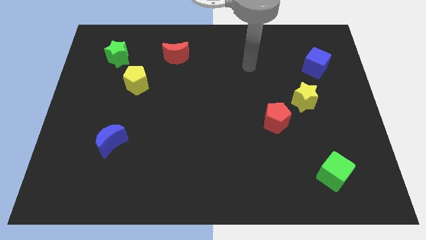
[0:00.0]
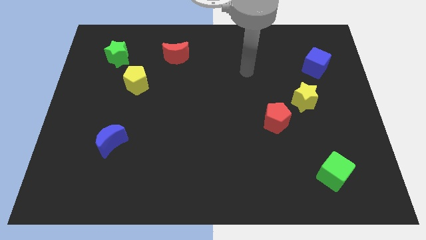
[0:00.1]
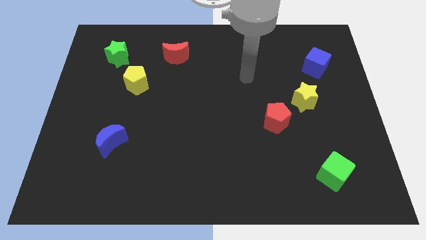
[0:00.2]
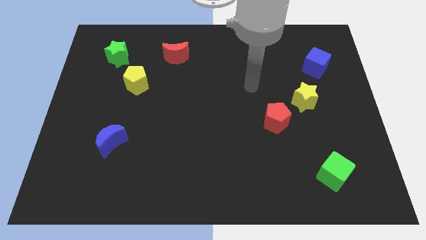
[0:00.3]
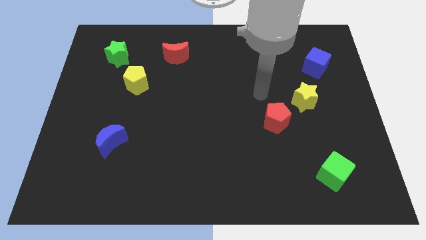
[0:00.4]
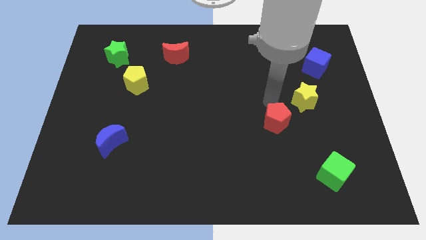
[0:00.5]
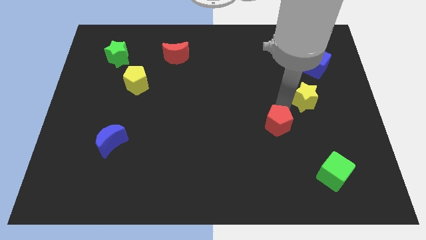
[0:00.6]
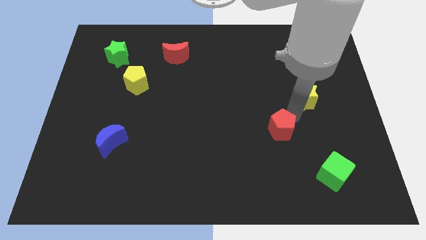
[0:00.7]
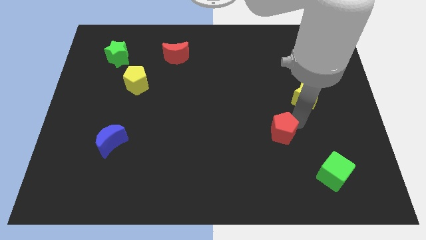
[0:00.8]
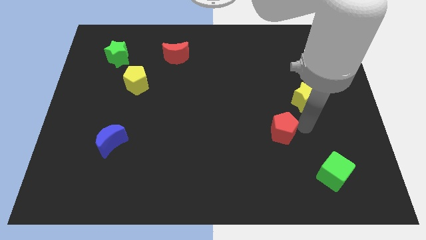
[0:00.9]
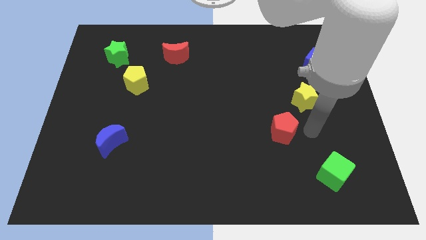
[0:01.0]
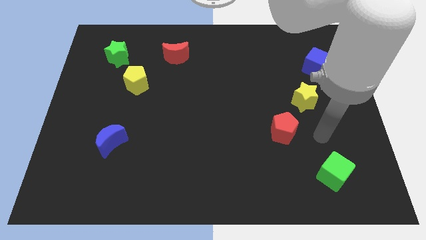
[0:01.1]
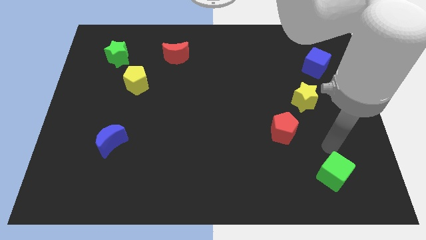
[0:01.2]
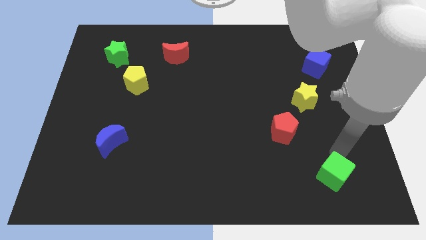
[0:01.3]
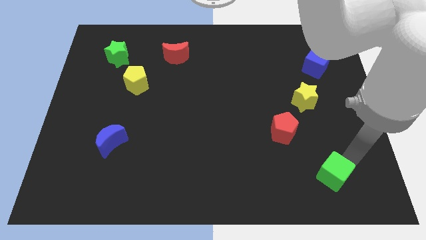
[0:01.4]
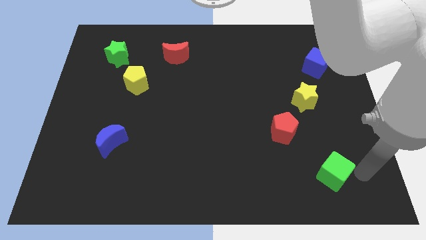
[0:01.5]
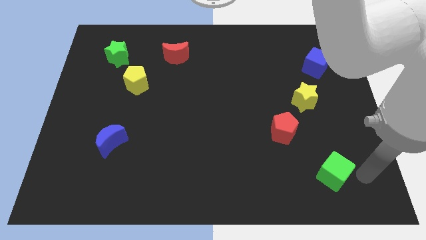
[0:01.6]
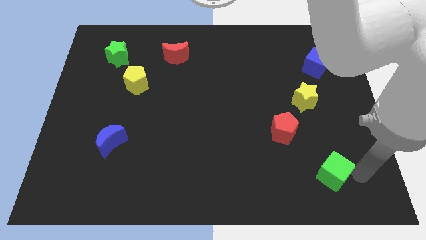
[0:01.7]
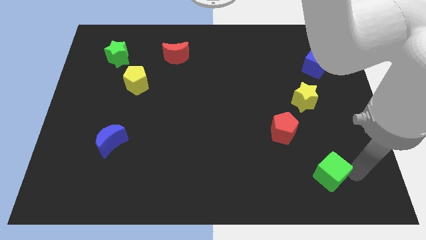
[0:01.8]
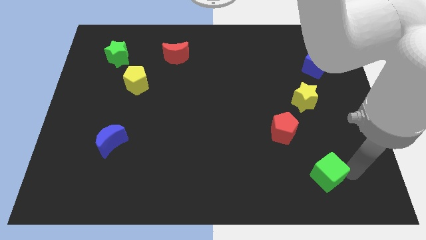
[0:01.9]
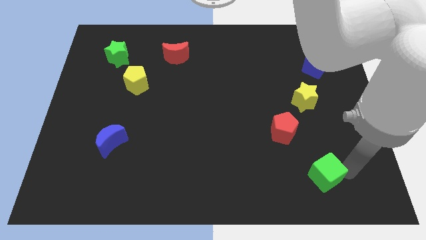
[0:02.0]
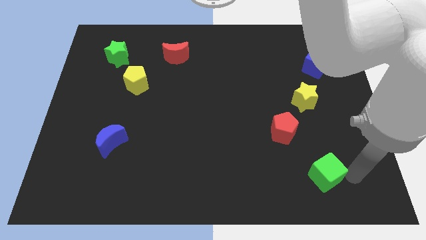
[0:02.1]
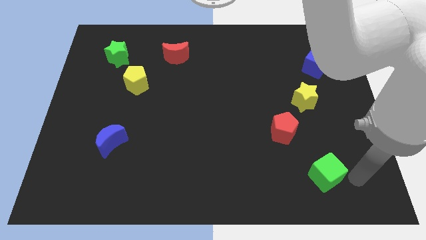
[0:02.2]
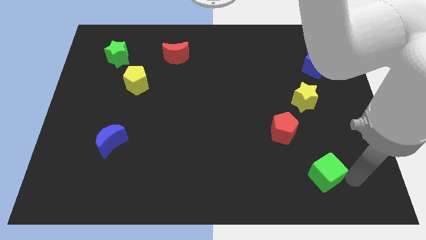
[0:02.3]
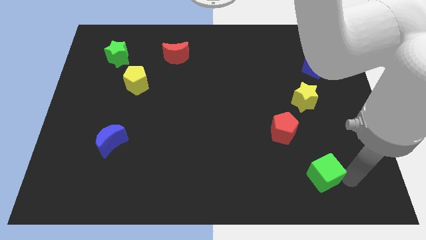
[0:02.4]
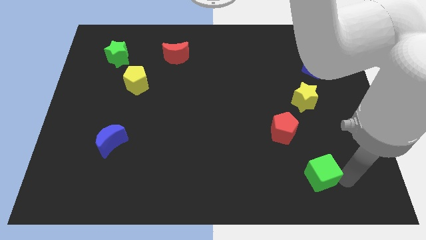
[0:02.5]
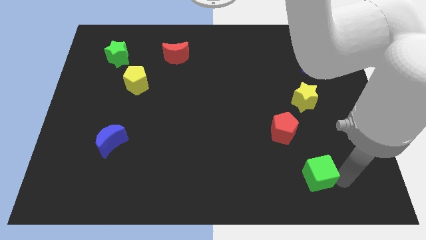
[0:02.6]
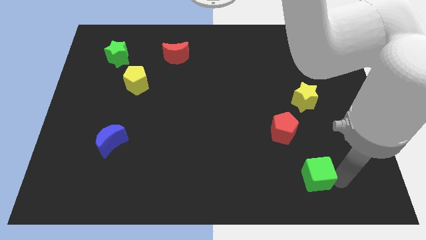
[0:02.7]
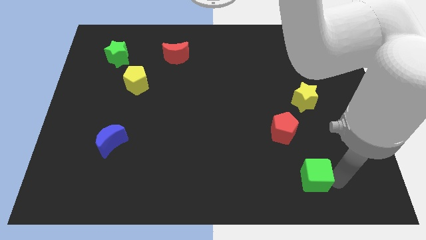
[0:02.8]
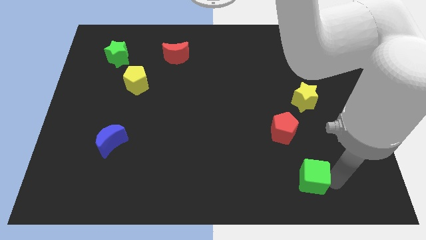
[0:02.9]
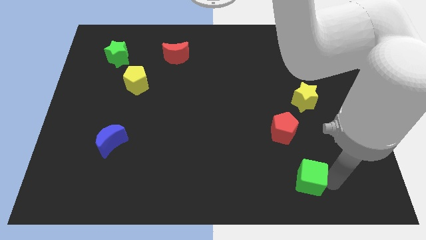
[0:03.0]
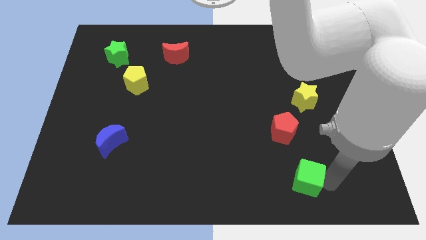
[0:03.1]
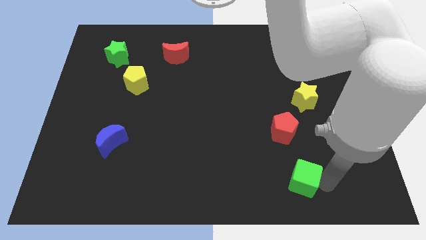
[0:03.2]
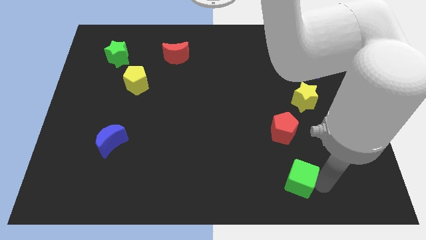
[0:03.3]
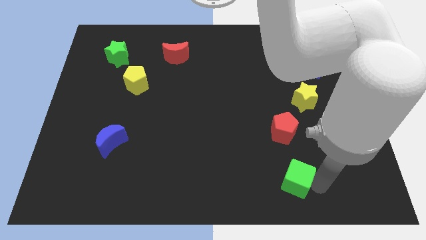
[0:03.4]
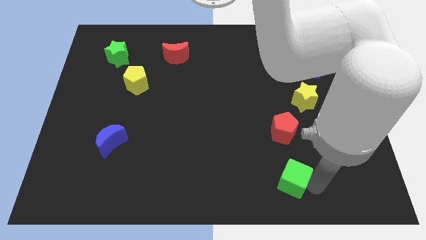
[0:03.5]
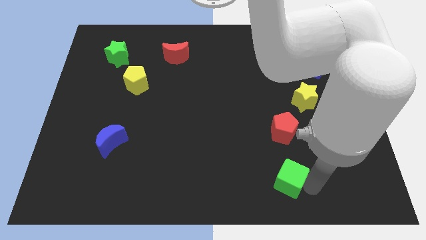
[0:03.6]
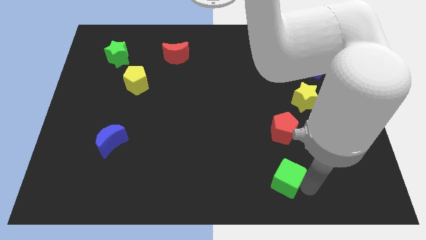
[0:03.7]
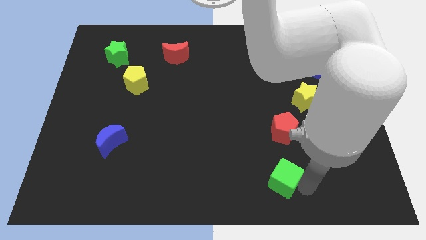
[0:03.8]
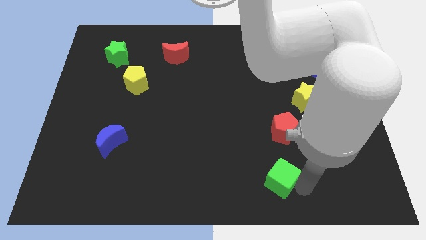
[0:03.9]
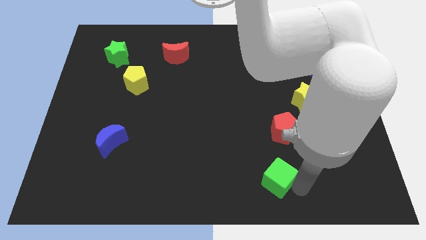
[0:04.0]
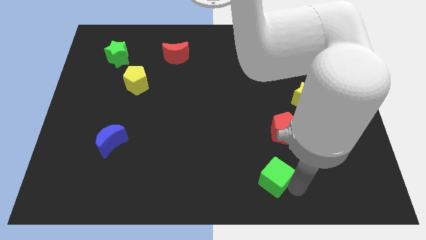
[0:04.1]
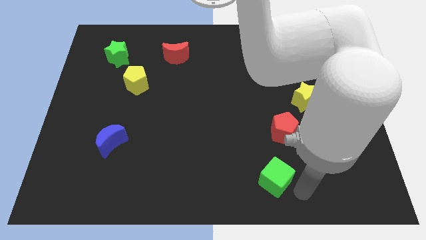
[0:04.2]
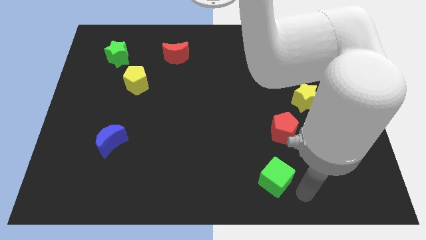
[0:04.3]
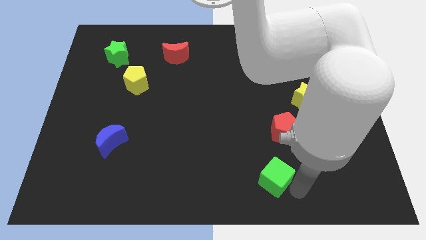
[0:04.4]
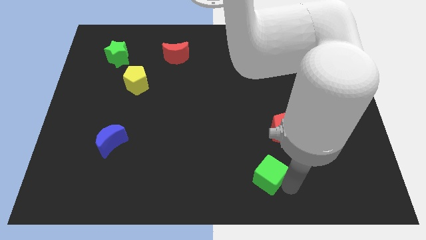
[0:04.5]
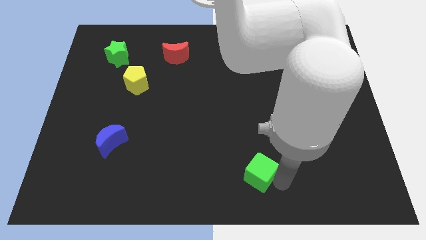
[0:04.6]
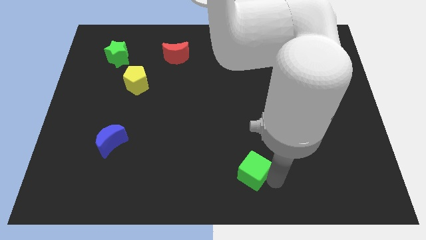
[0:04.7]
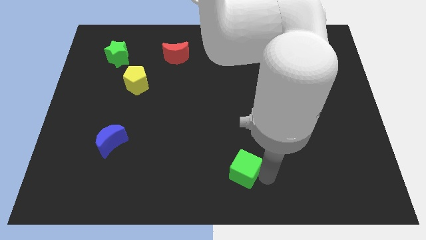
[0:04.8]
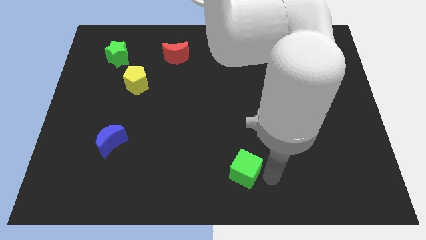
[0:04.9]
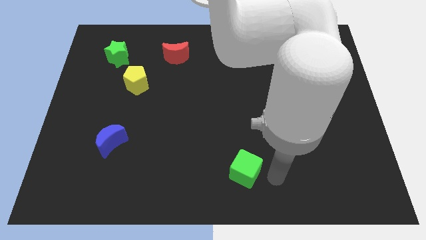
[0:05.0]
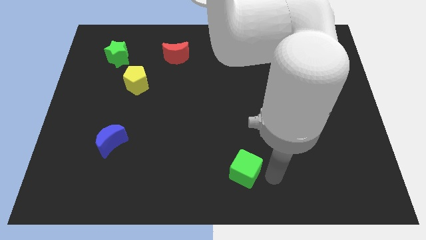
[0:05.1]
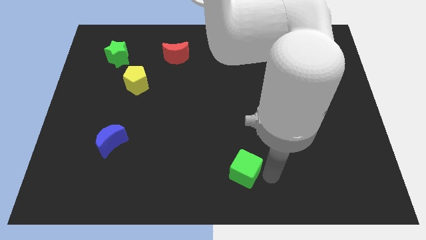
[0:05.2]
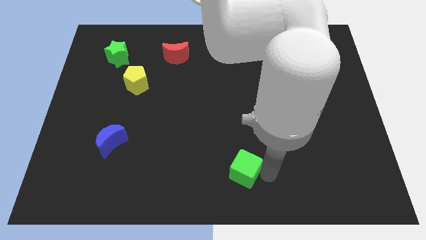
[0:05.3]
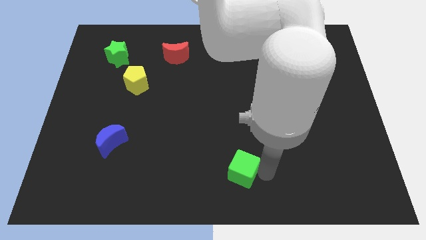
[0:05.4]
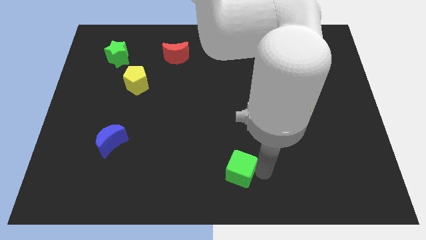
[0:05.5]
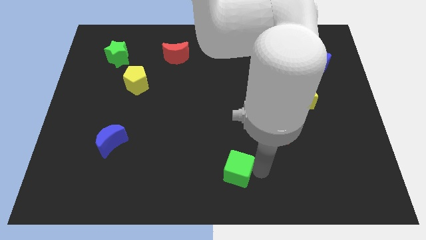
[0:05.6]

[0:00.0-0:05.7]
move the green cube to the left

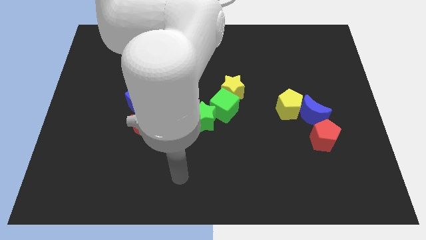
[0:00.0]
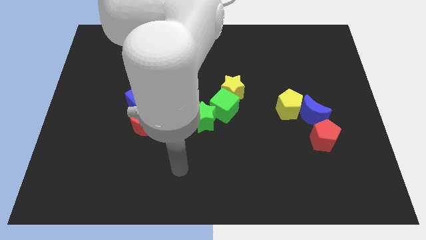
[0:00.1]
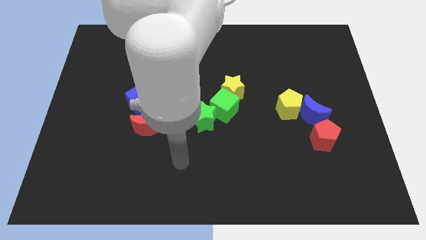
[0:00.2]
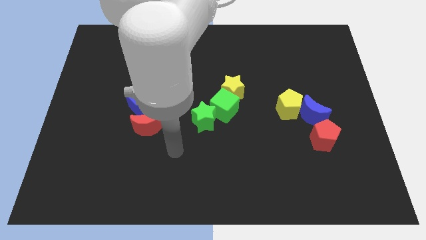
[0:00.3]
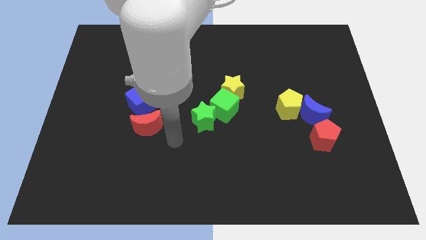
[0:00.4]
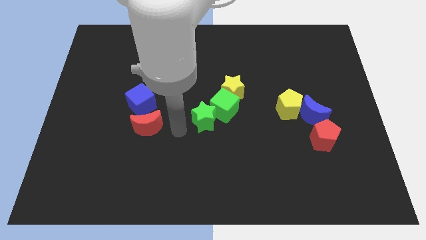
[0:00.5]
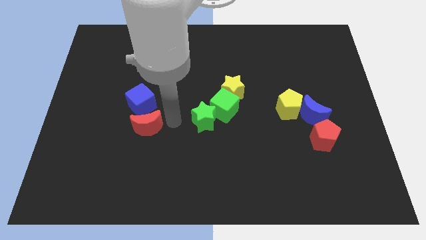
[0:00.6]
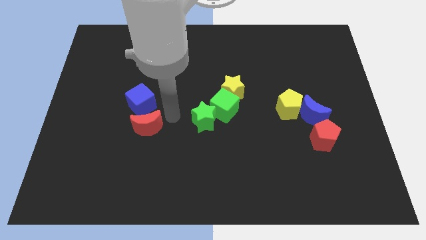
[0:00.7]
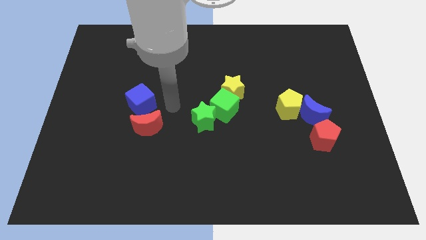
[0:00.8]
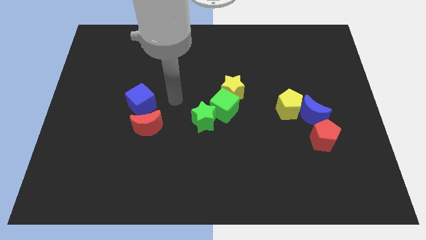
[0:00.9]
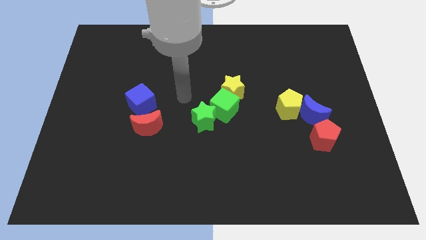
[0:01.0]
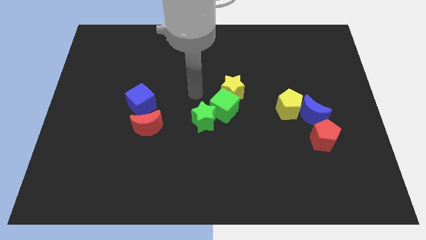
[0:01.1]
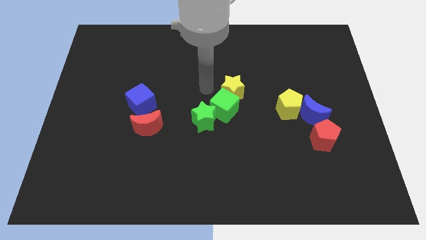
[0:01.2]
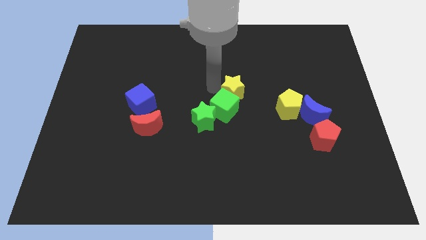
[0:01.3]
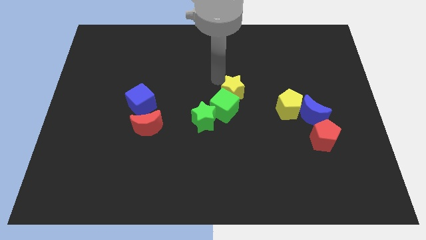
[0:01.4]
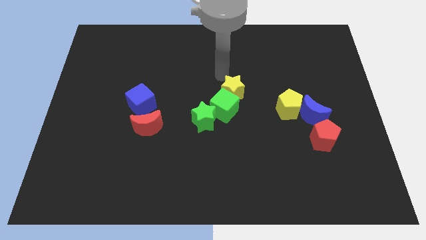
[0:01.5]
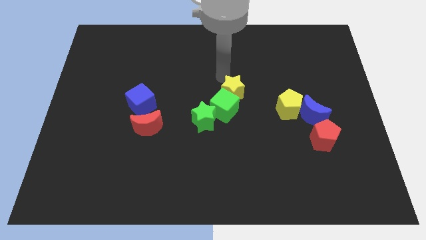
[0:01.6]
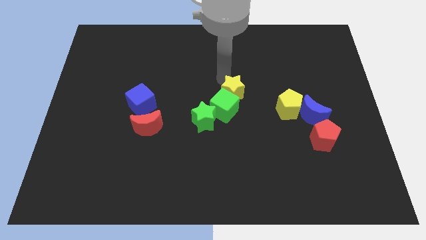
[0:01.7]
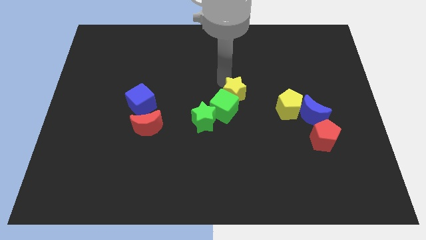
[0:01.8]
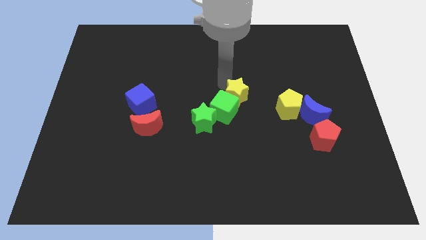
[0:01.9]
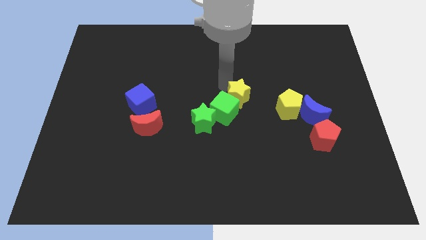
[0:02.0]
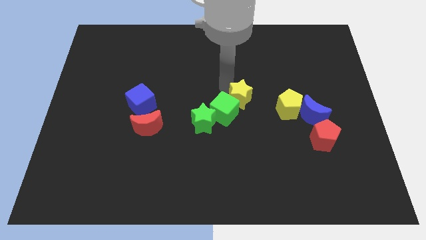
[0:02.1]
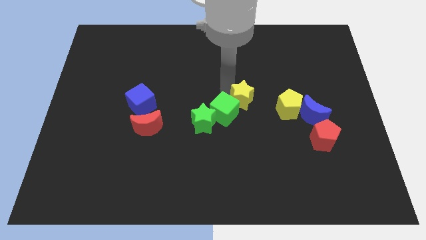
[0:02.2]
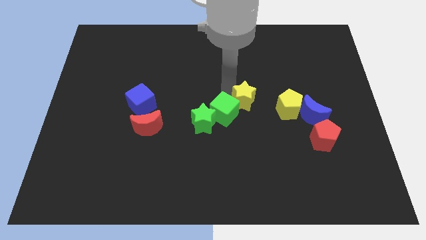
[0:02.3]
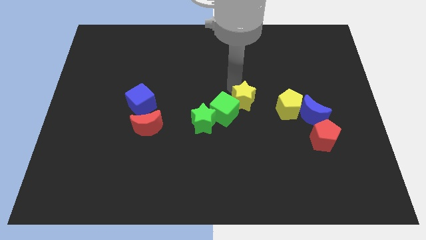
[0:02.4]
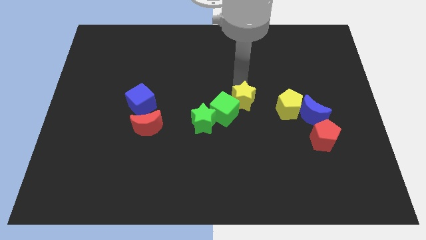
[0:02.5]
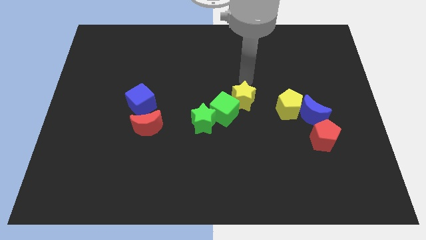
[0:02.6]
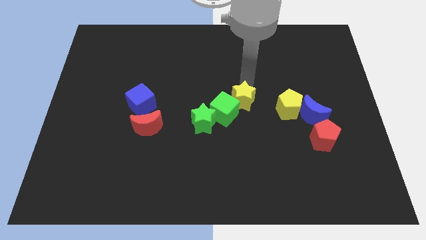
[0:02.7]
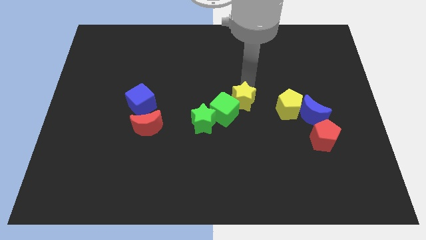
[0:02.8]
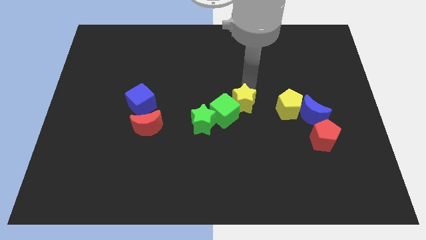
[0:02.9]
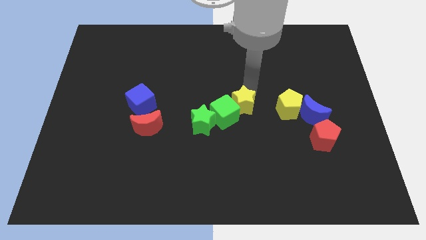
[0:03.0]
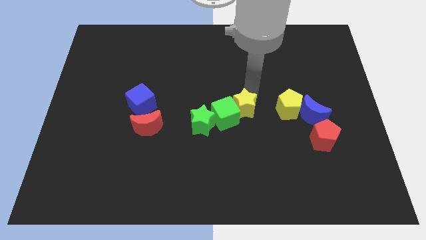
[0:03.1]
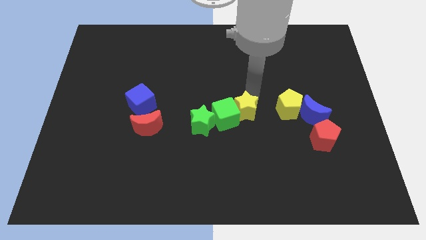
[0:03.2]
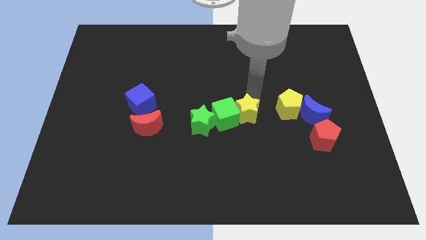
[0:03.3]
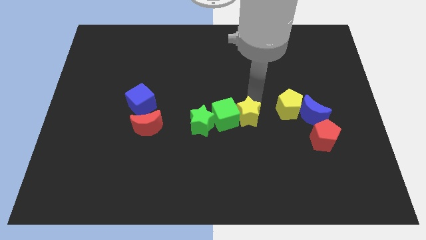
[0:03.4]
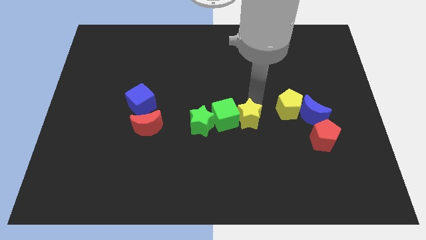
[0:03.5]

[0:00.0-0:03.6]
slide the yellow star a little downwards
